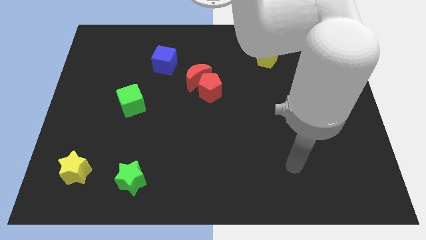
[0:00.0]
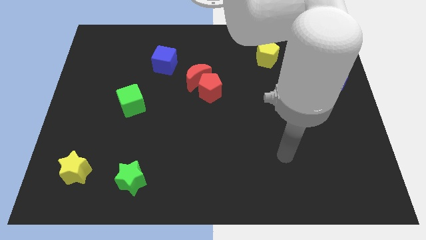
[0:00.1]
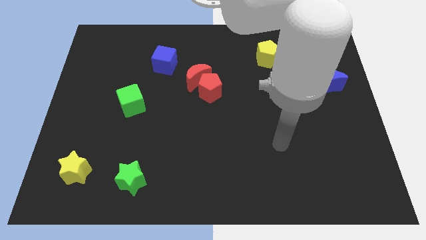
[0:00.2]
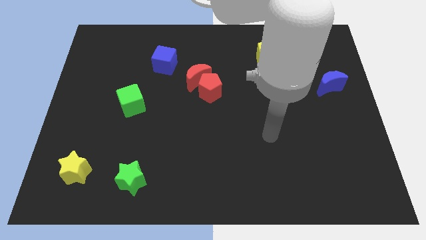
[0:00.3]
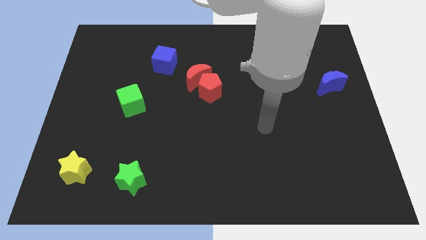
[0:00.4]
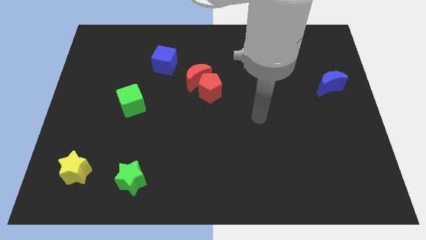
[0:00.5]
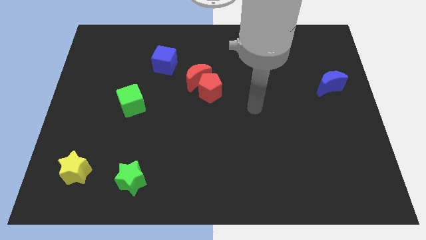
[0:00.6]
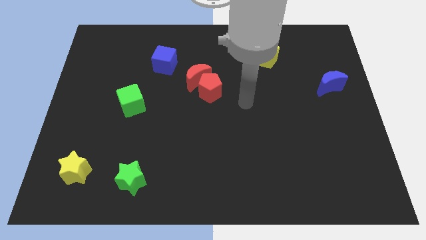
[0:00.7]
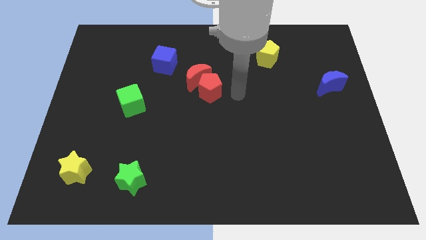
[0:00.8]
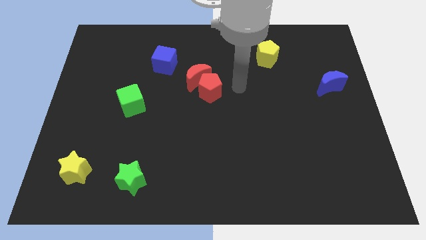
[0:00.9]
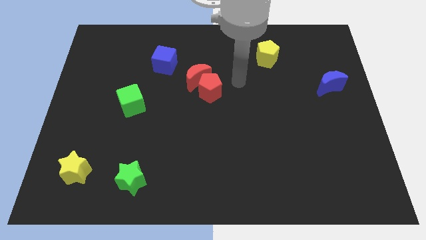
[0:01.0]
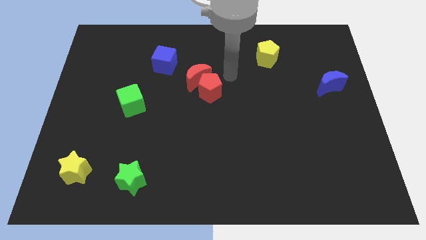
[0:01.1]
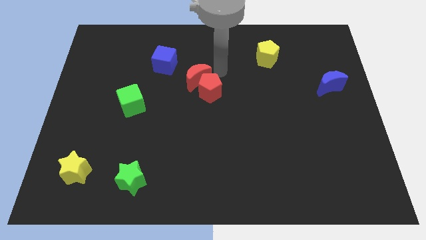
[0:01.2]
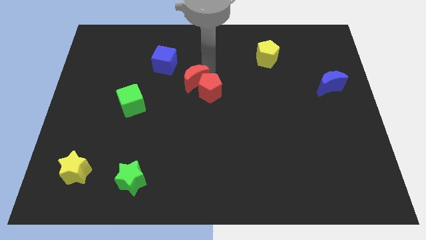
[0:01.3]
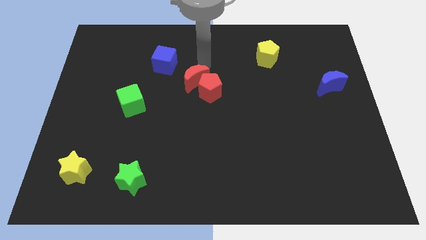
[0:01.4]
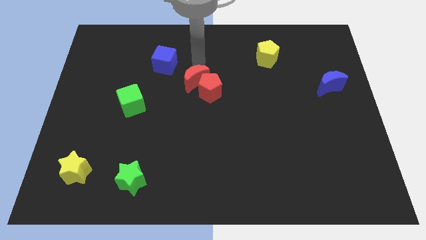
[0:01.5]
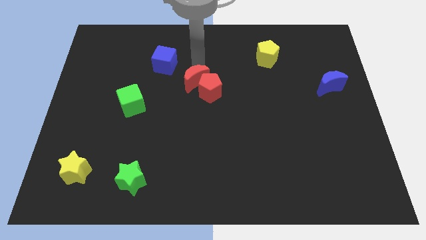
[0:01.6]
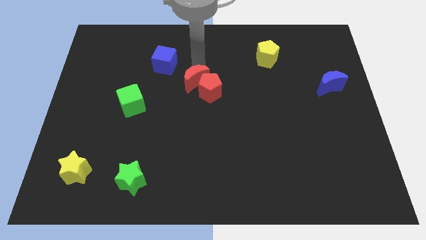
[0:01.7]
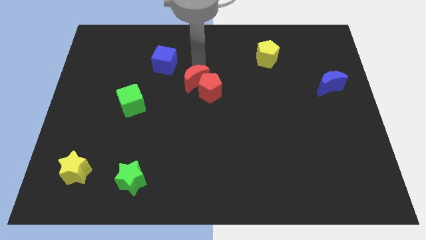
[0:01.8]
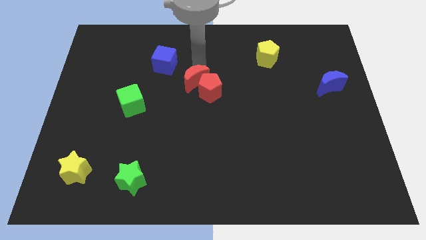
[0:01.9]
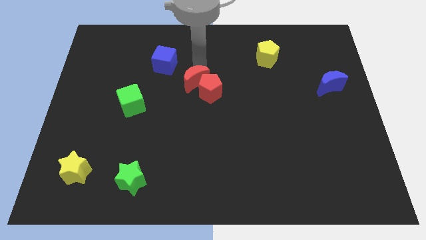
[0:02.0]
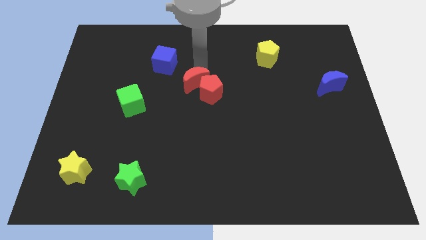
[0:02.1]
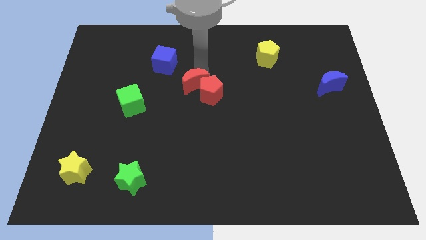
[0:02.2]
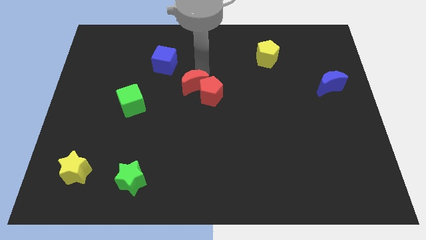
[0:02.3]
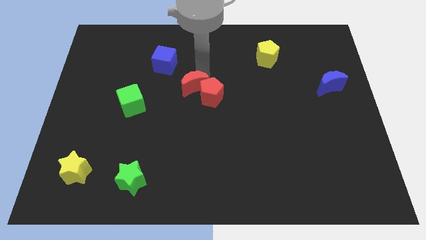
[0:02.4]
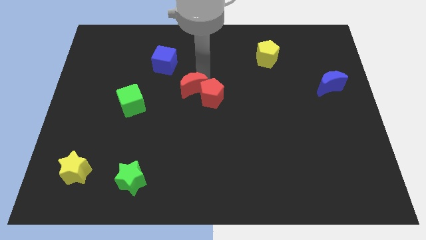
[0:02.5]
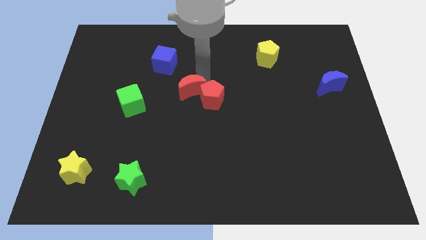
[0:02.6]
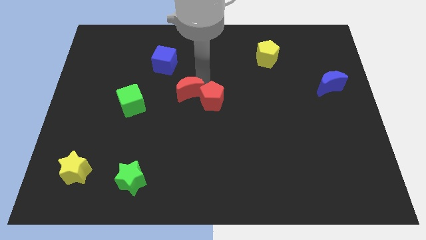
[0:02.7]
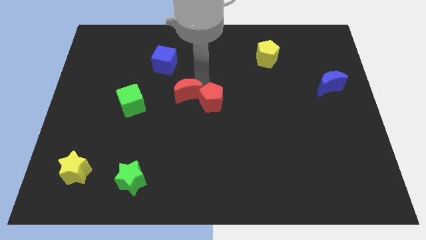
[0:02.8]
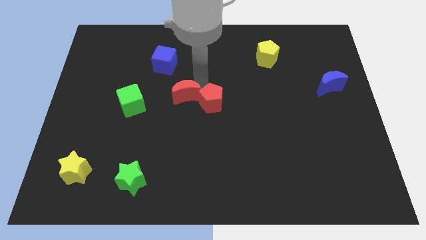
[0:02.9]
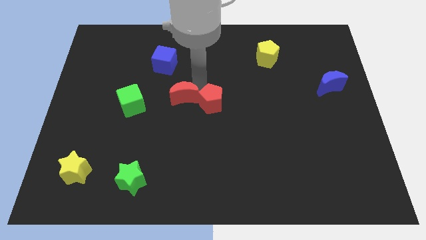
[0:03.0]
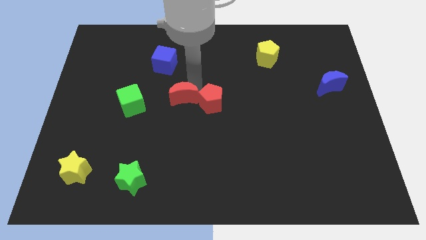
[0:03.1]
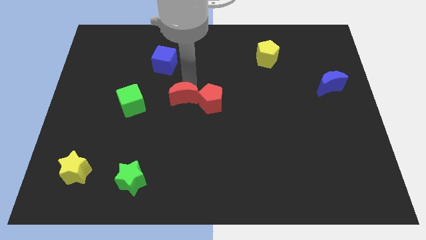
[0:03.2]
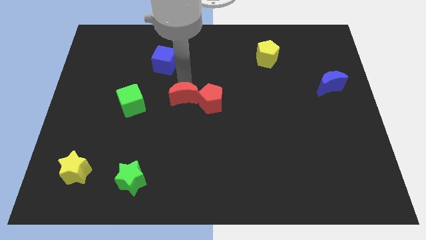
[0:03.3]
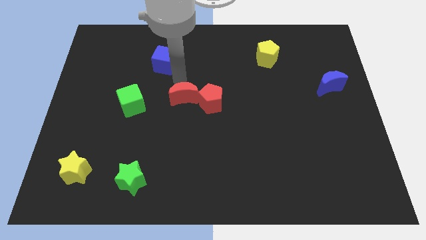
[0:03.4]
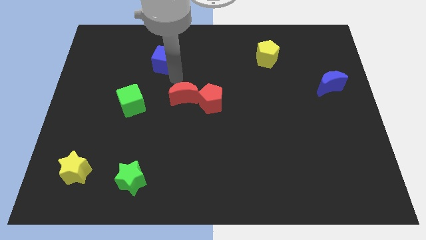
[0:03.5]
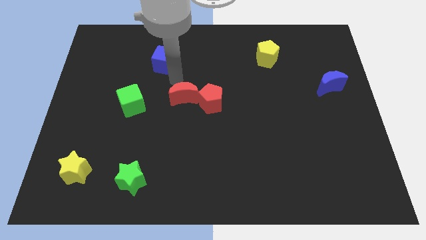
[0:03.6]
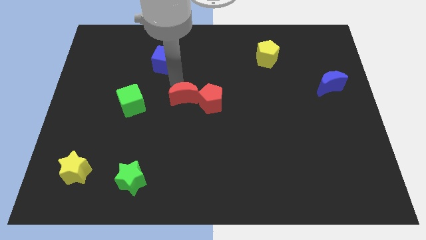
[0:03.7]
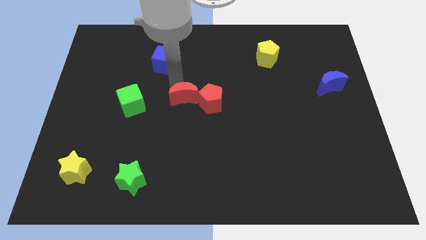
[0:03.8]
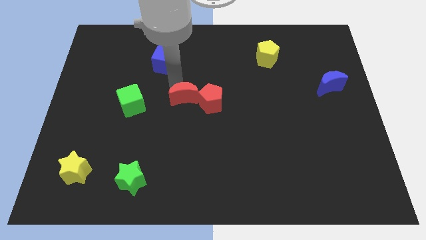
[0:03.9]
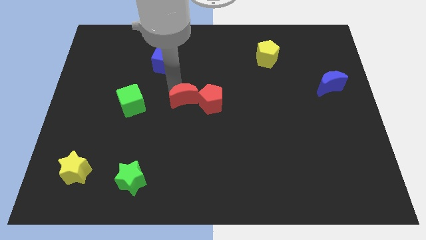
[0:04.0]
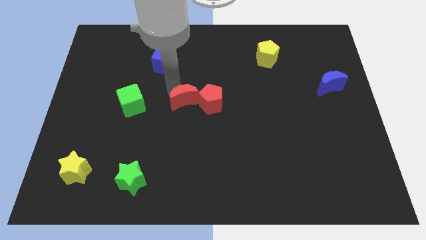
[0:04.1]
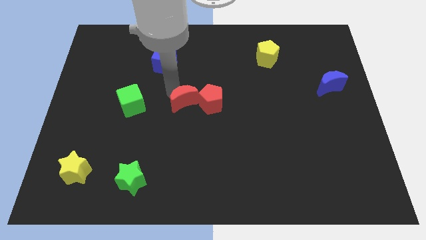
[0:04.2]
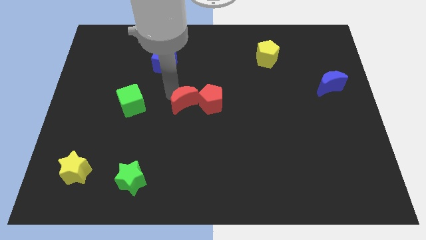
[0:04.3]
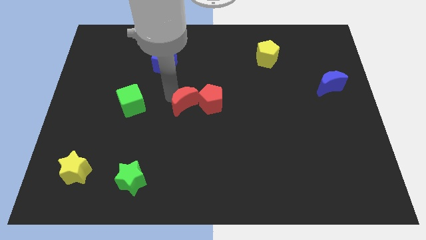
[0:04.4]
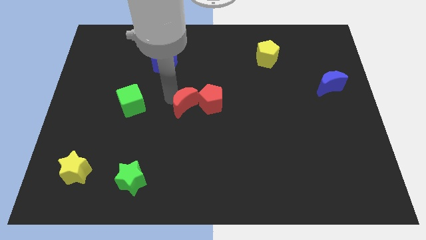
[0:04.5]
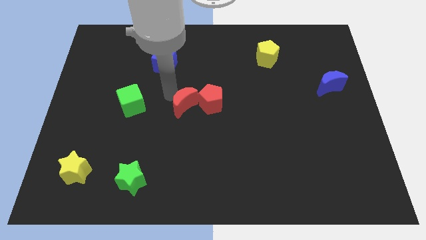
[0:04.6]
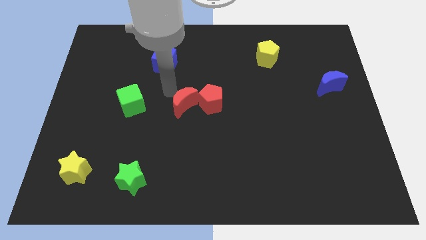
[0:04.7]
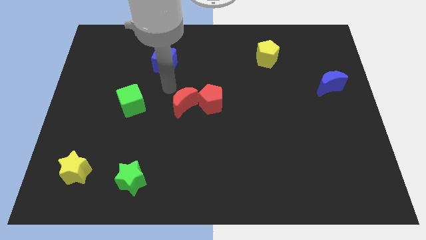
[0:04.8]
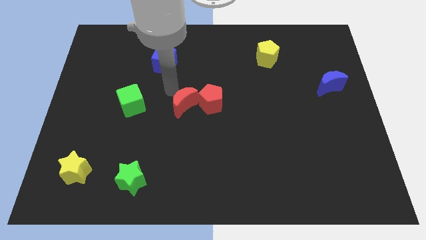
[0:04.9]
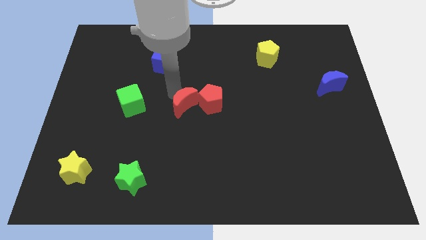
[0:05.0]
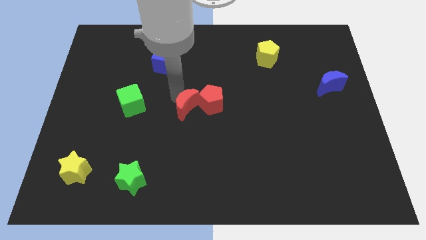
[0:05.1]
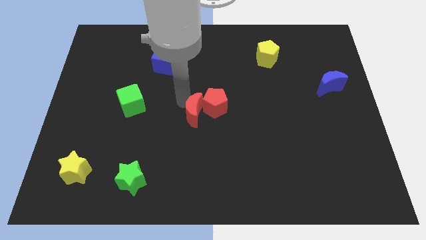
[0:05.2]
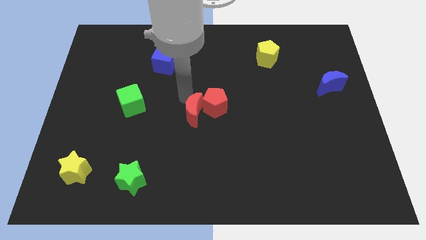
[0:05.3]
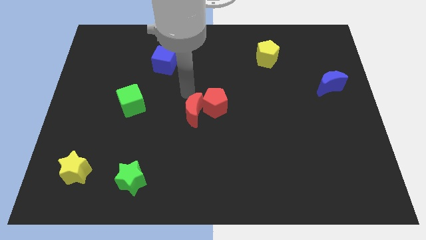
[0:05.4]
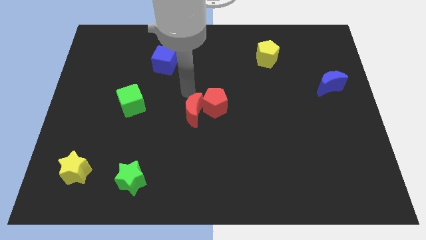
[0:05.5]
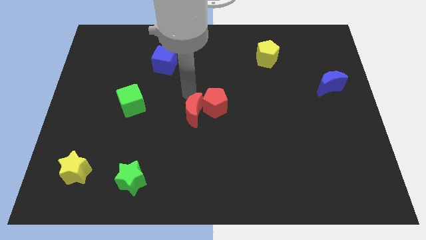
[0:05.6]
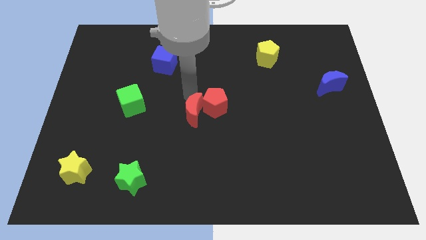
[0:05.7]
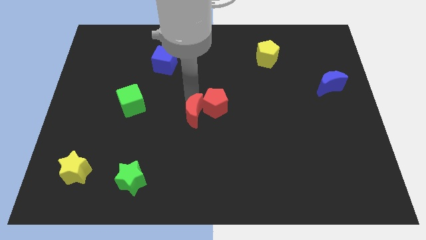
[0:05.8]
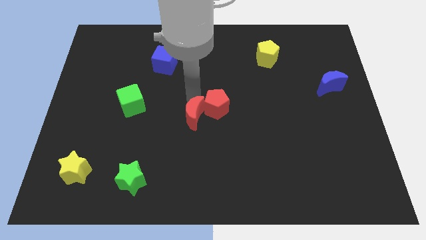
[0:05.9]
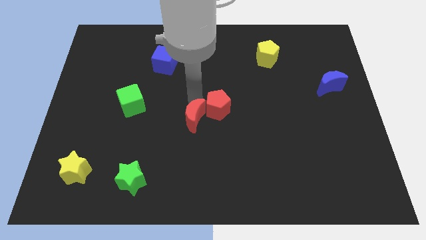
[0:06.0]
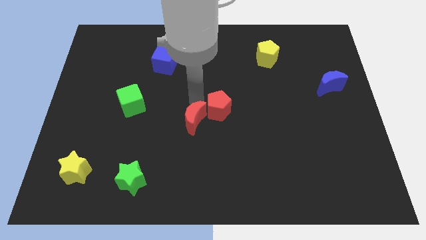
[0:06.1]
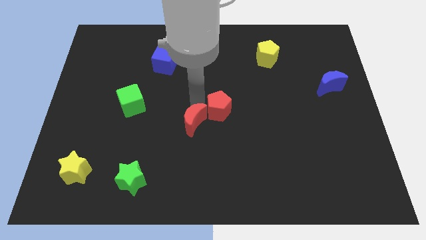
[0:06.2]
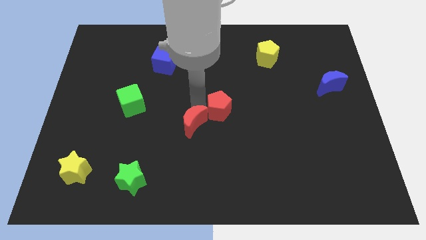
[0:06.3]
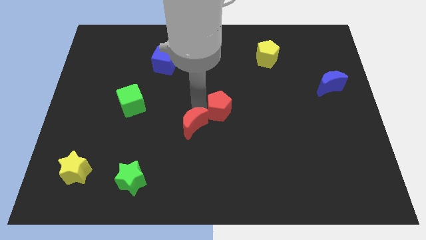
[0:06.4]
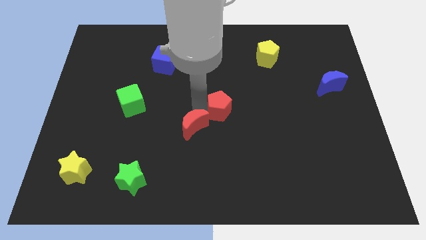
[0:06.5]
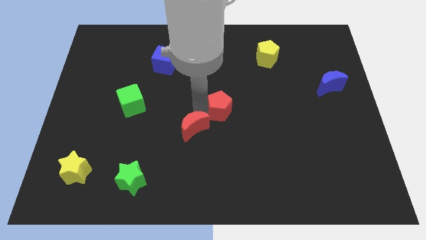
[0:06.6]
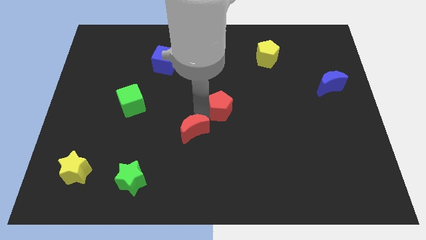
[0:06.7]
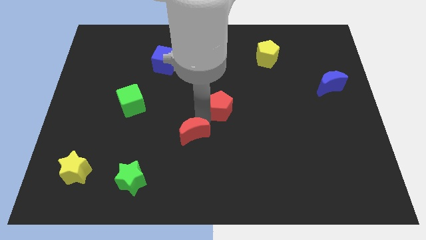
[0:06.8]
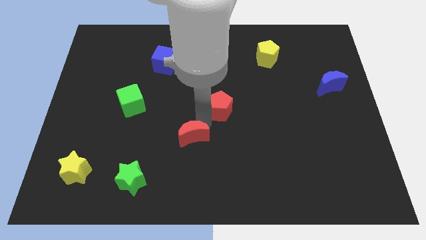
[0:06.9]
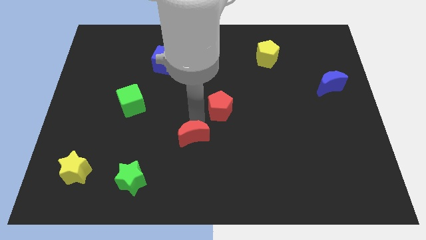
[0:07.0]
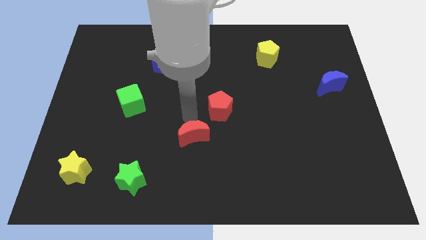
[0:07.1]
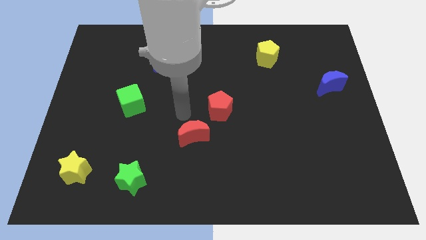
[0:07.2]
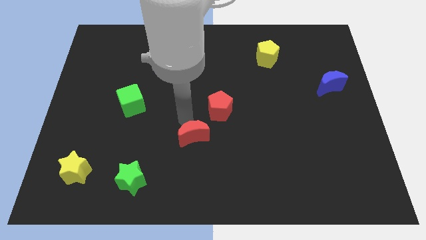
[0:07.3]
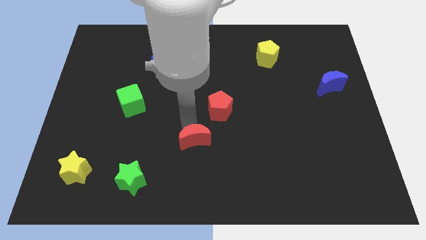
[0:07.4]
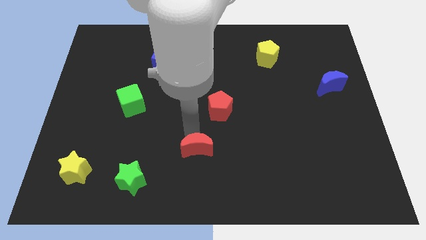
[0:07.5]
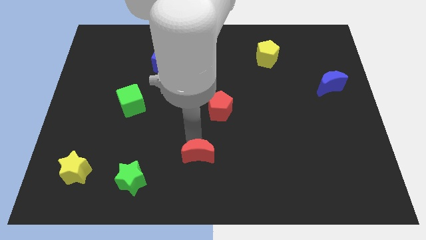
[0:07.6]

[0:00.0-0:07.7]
push the red moon to the bottom side
